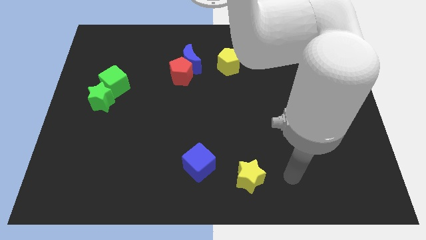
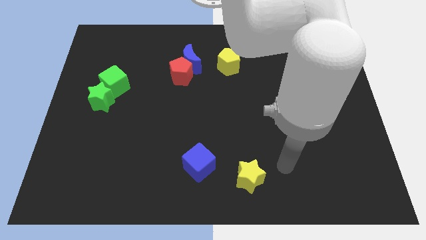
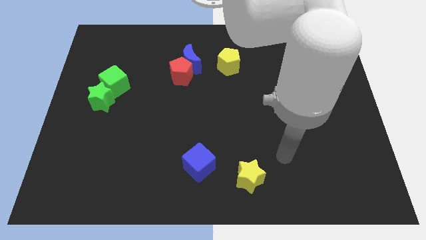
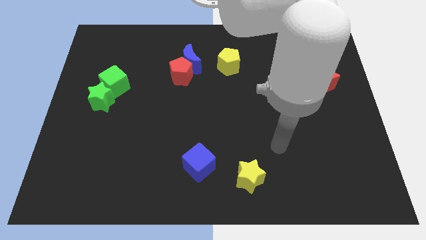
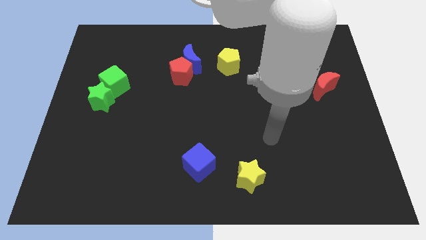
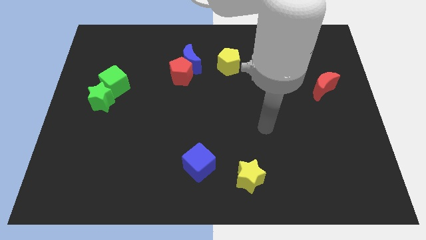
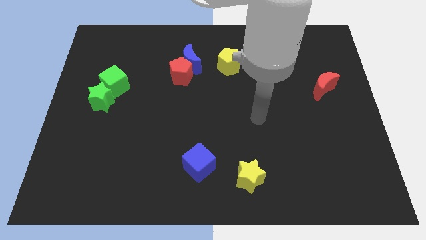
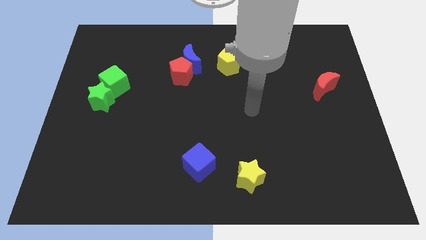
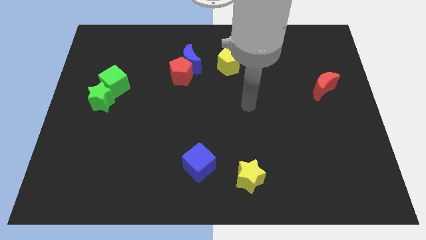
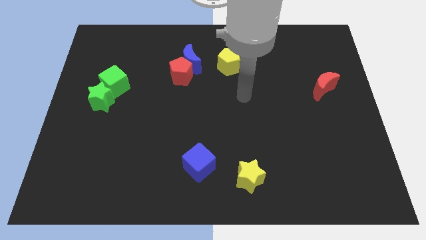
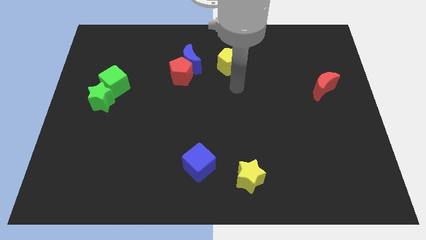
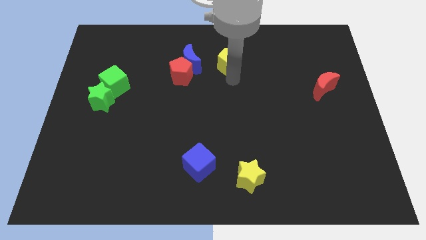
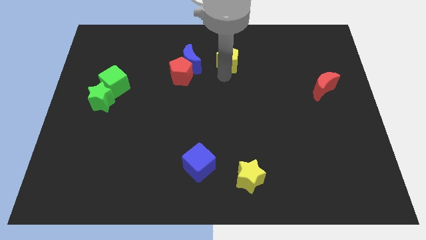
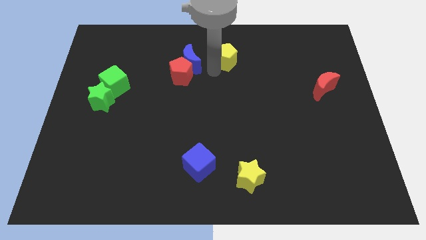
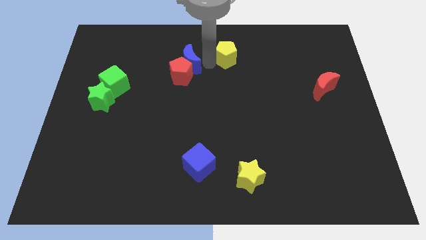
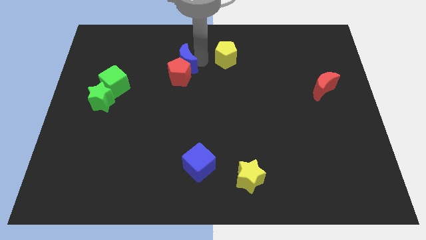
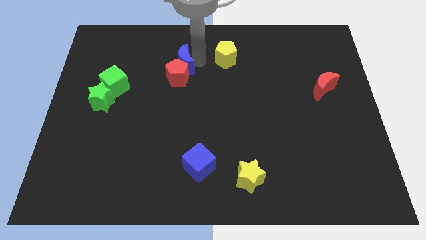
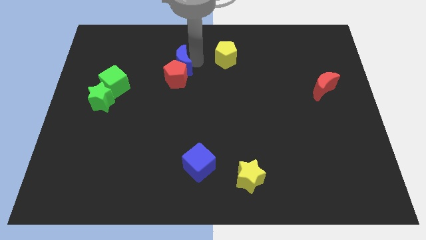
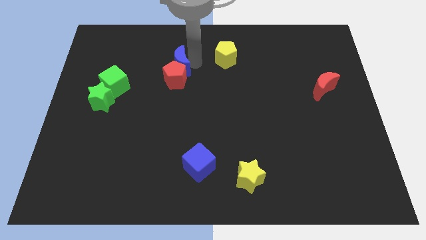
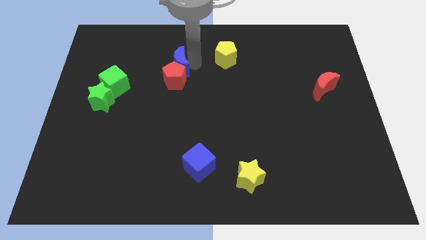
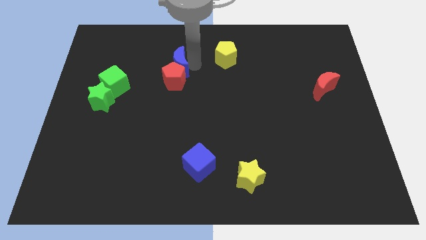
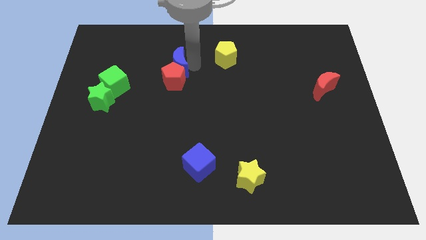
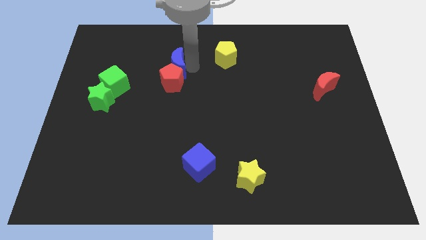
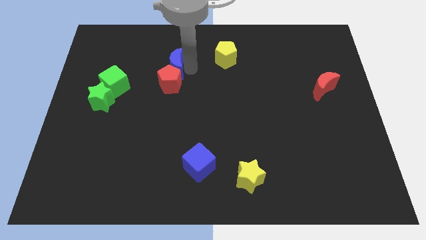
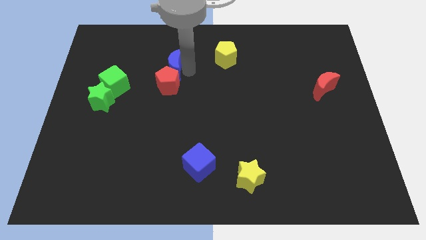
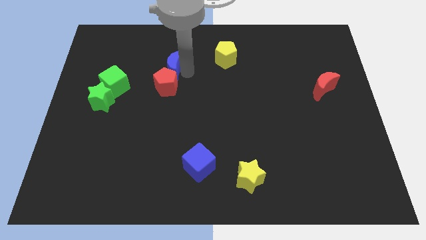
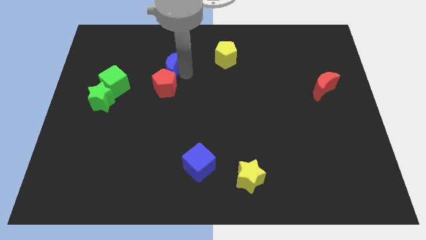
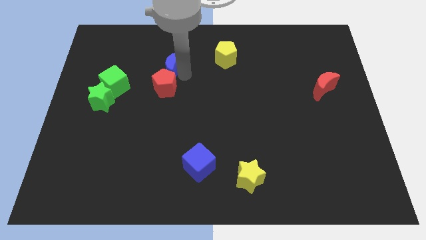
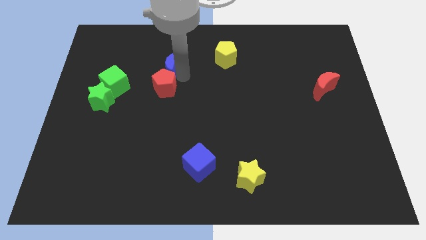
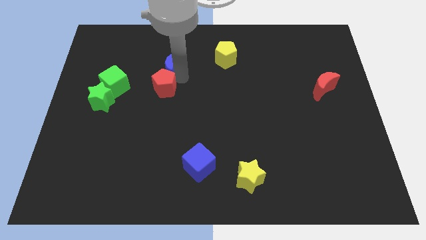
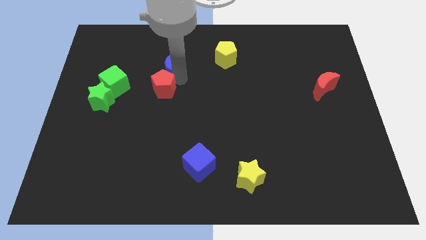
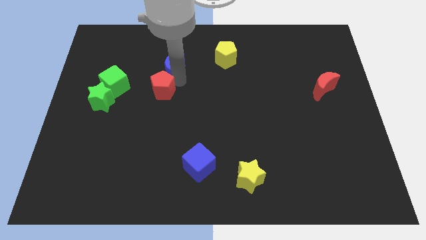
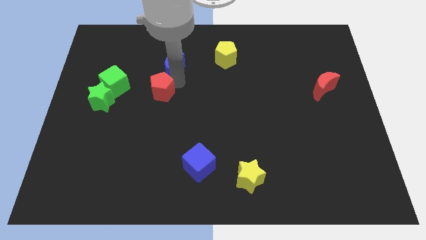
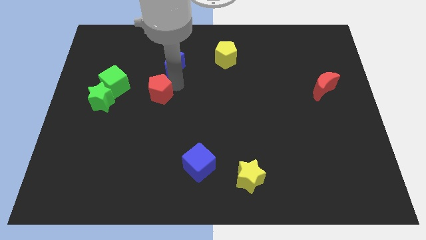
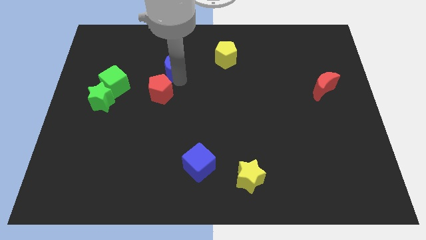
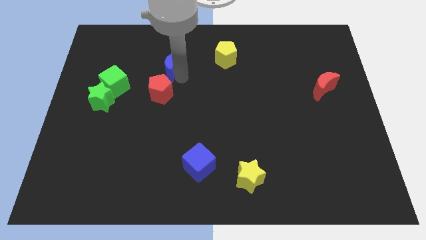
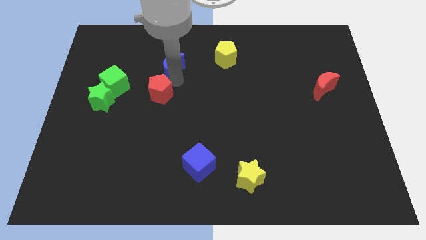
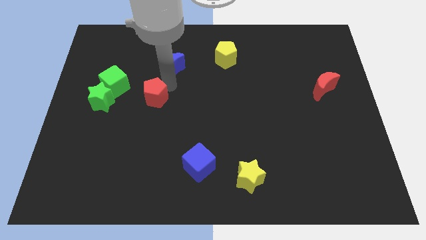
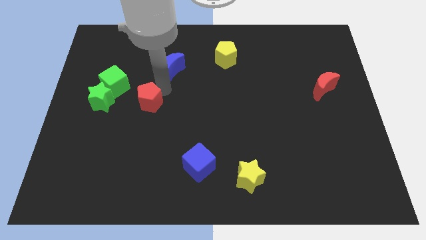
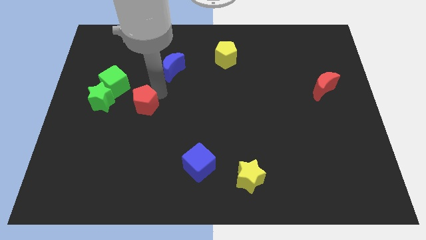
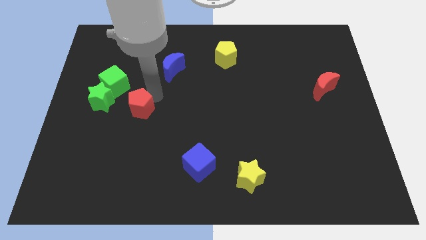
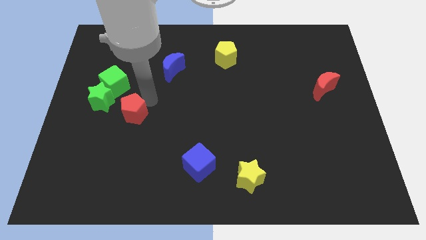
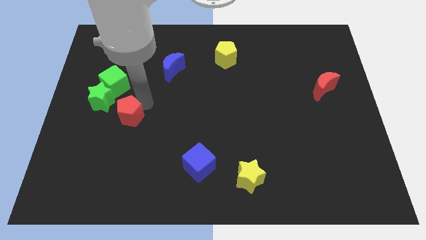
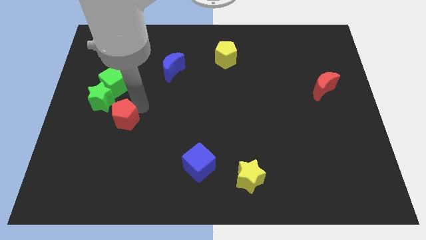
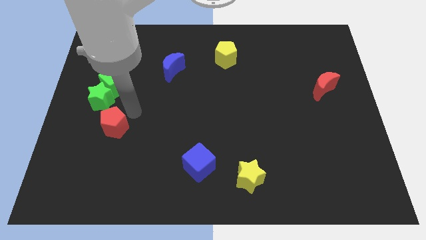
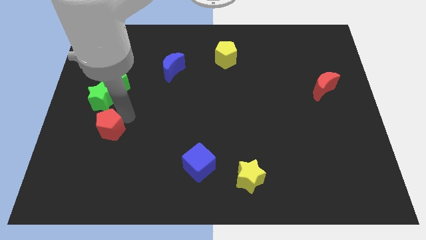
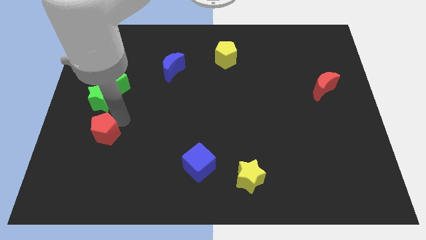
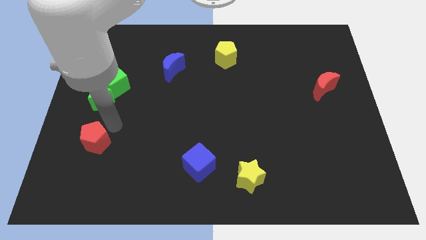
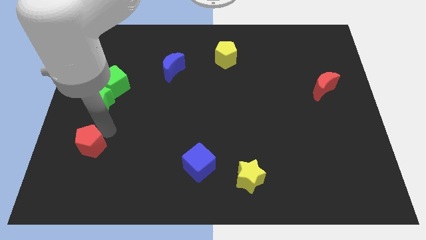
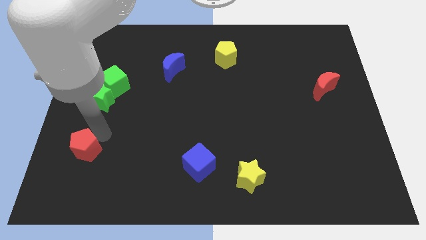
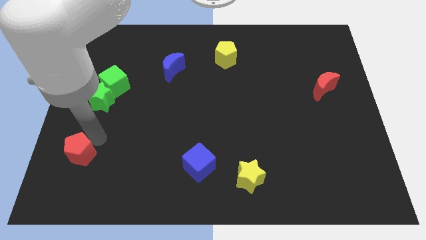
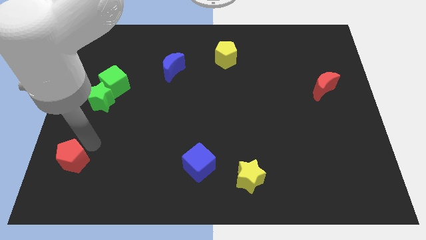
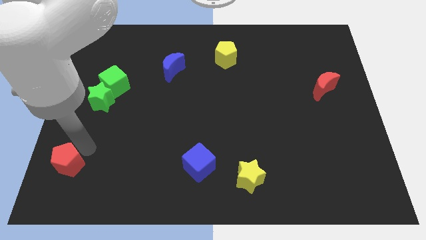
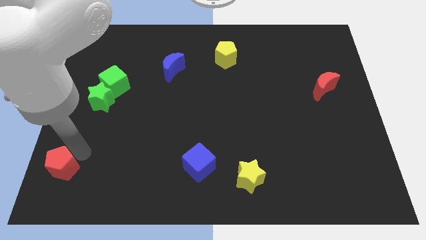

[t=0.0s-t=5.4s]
move the red pentagon to the bottom left corner

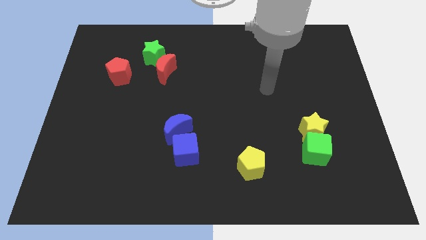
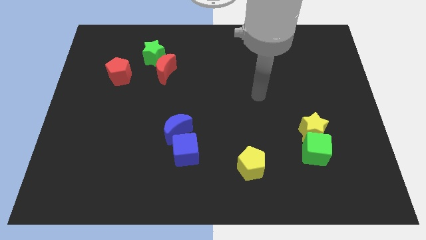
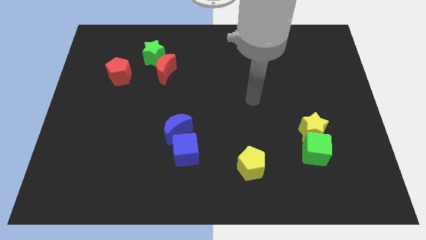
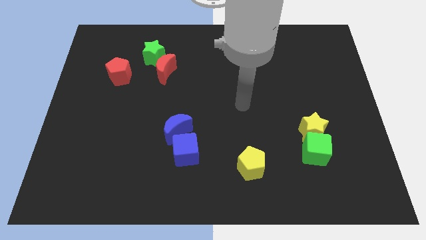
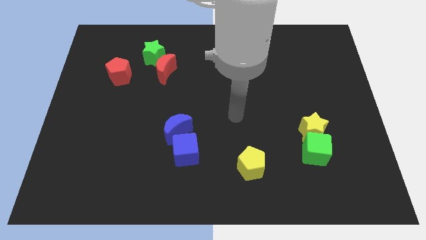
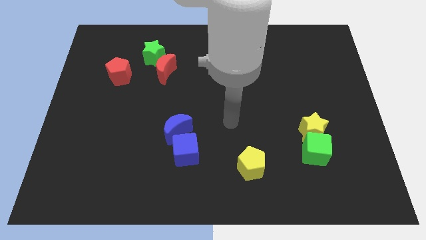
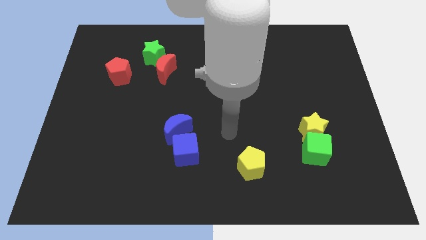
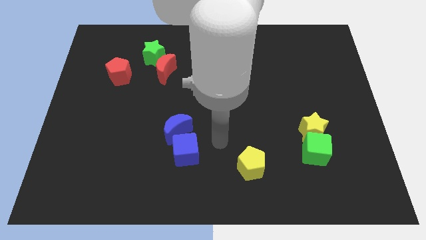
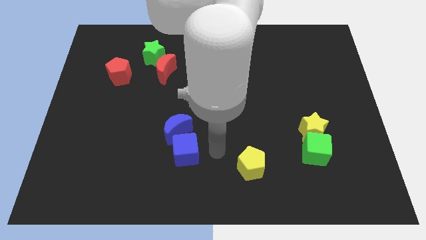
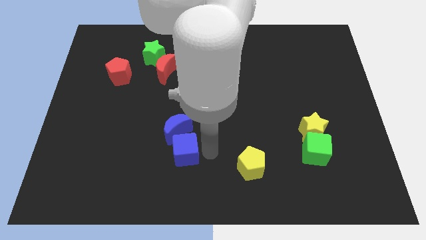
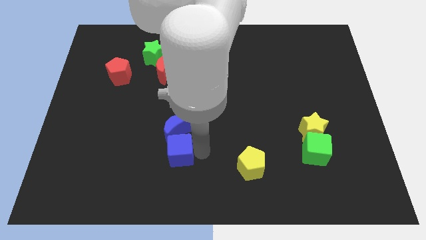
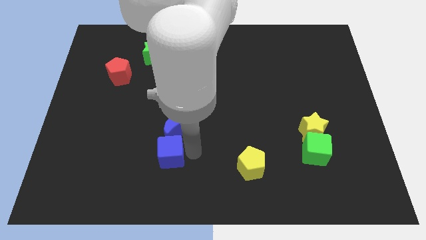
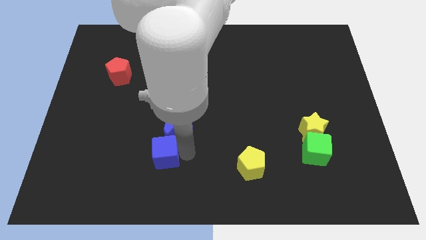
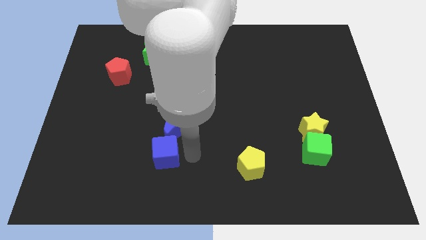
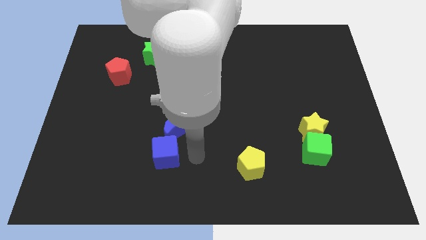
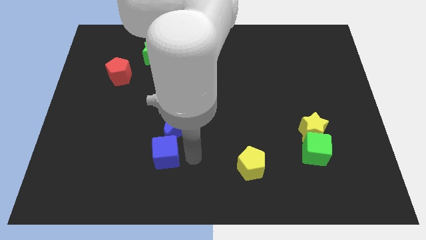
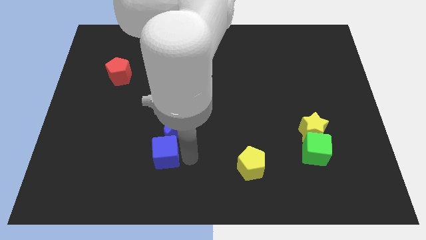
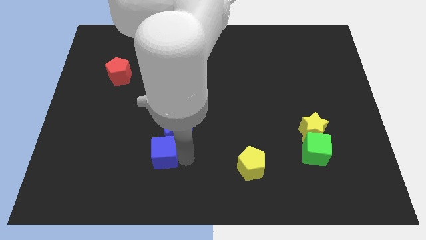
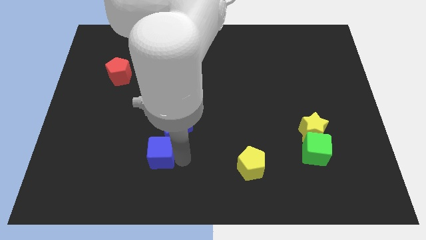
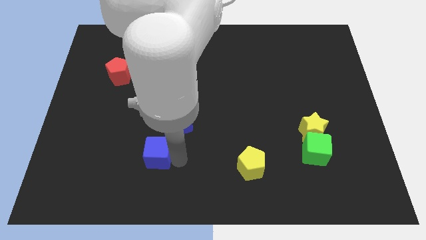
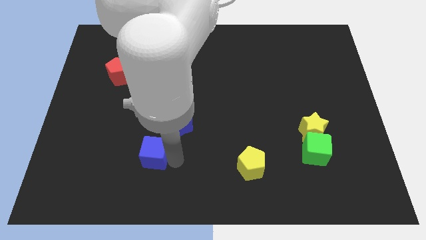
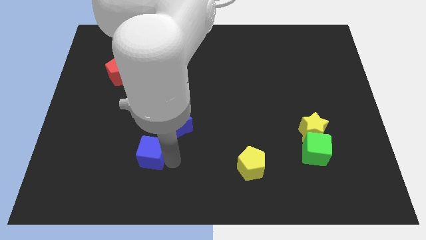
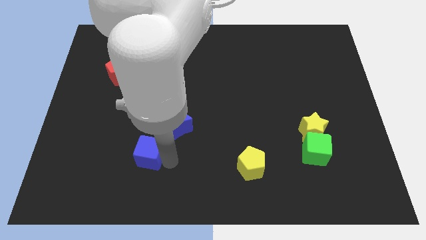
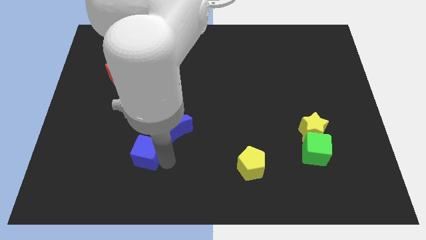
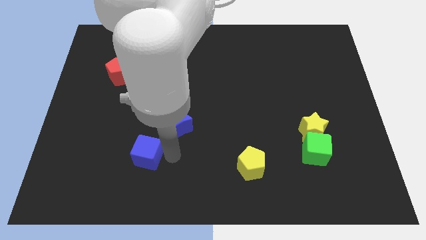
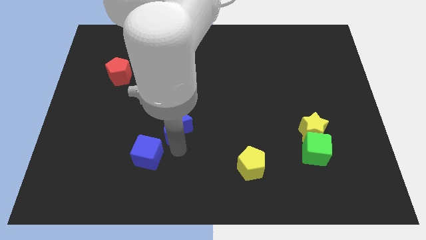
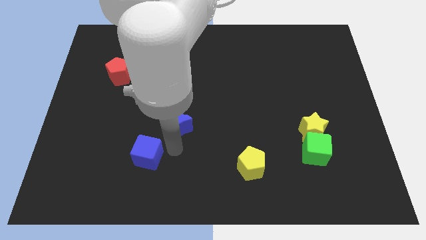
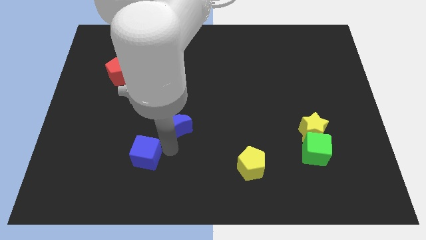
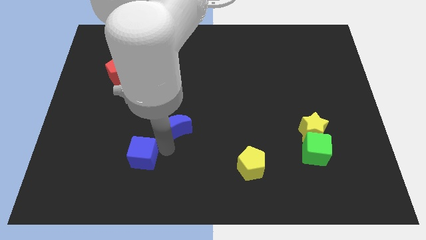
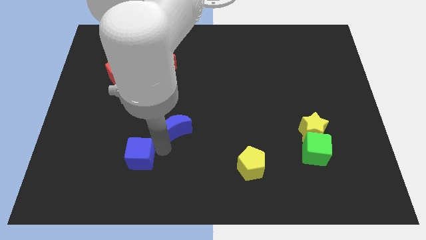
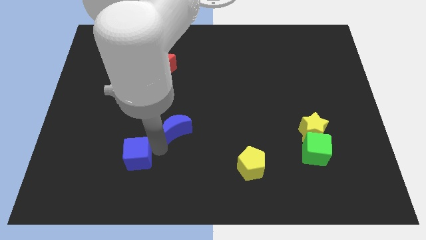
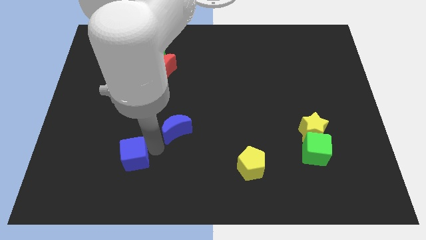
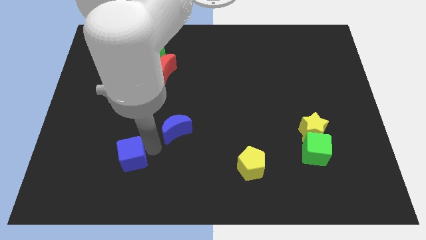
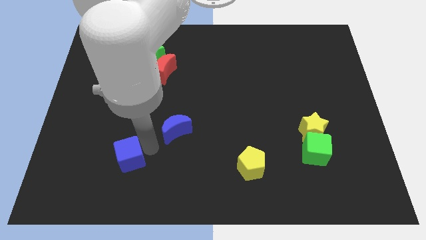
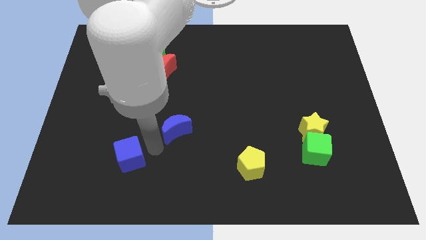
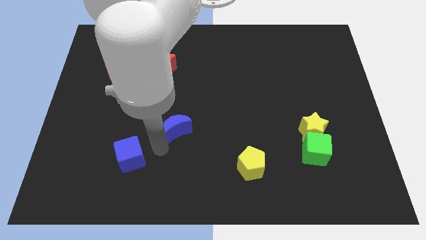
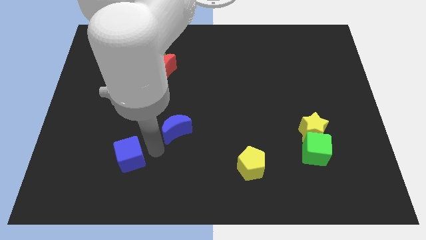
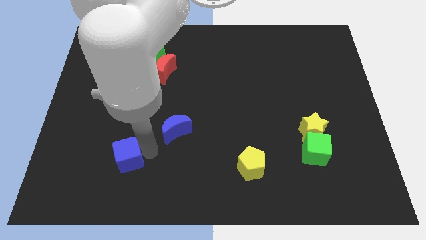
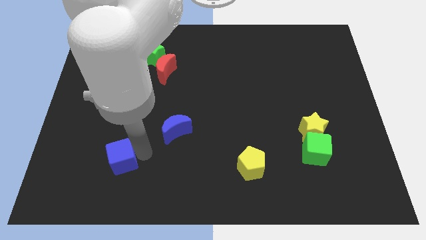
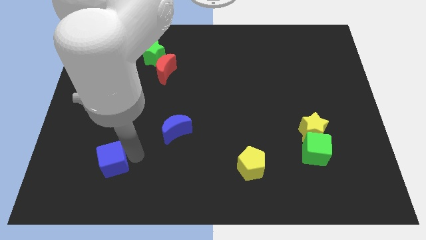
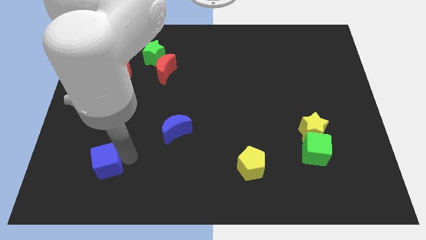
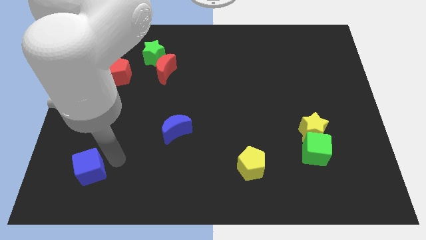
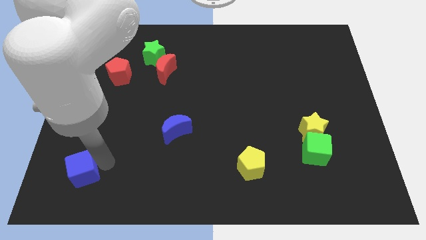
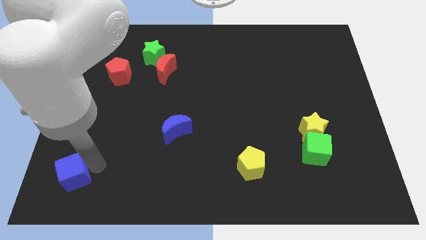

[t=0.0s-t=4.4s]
slide the blue cube to the bottom left of the board
